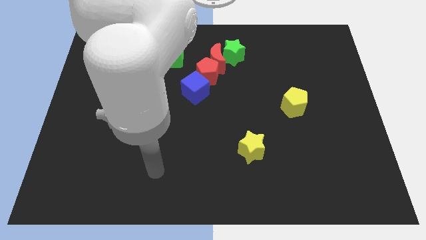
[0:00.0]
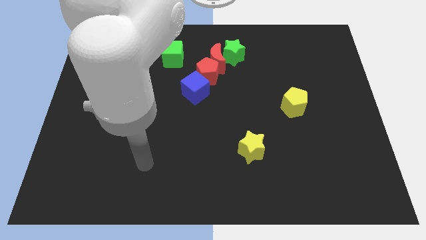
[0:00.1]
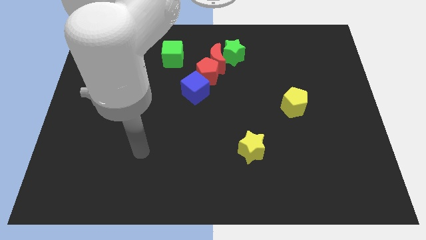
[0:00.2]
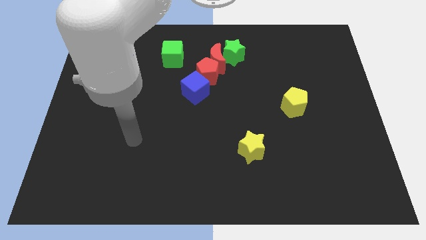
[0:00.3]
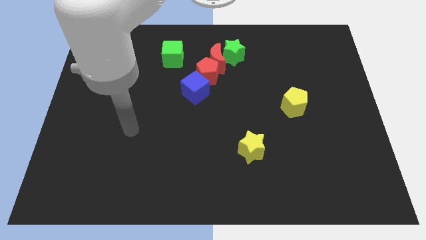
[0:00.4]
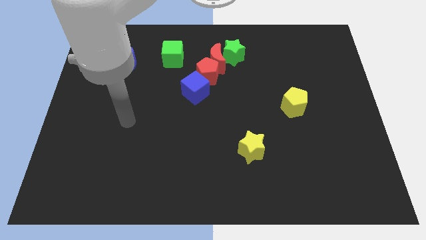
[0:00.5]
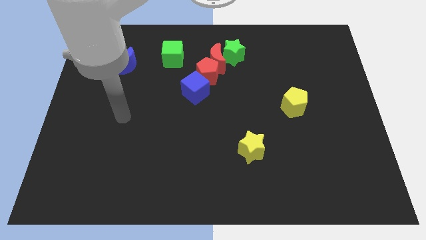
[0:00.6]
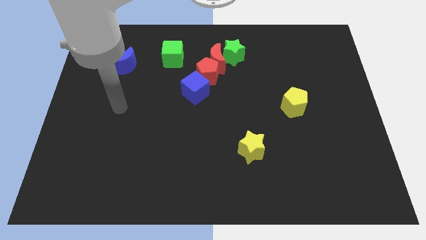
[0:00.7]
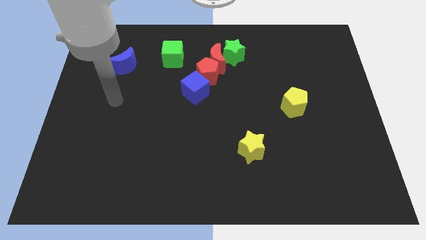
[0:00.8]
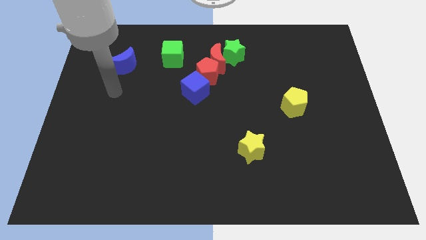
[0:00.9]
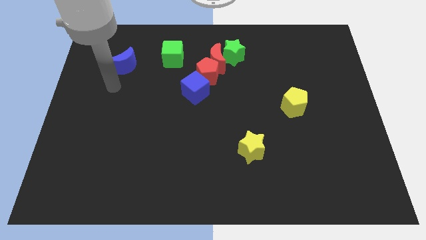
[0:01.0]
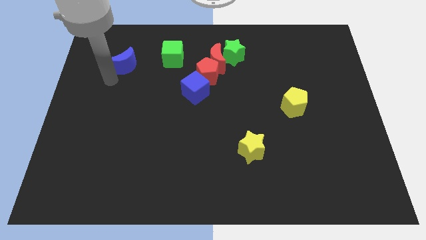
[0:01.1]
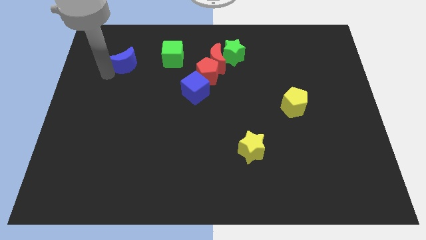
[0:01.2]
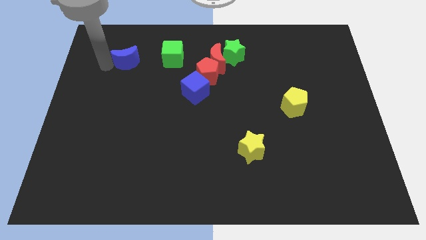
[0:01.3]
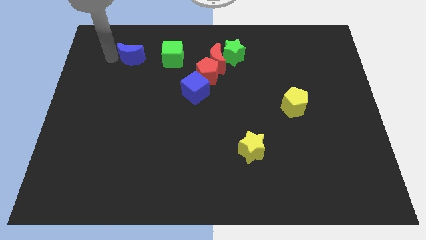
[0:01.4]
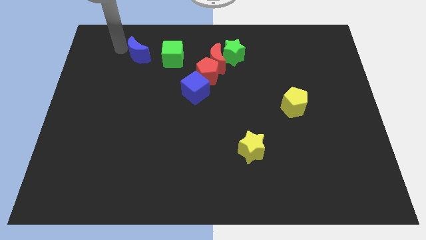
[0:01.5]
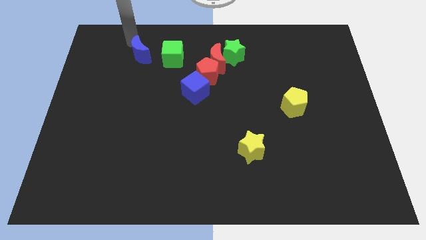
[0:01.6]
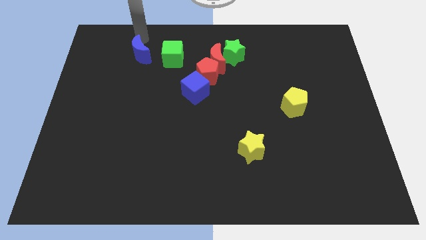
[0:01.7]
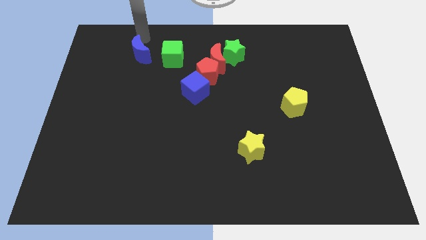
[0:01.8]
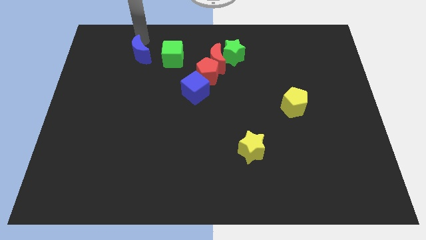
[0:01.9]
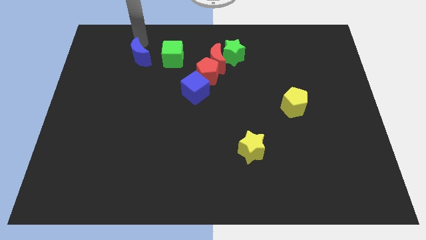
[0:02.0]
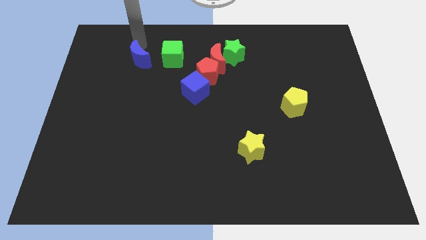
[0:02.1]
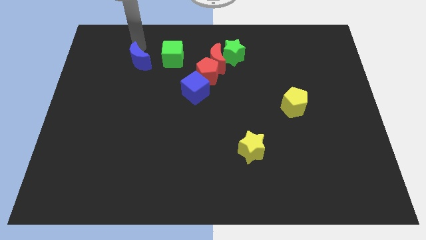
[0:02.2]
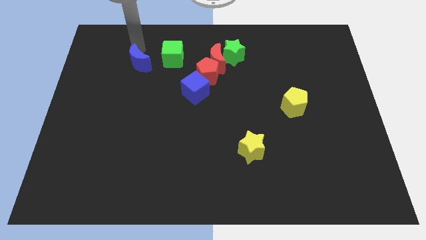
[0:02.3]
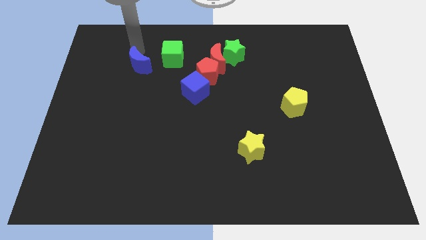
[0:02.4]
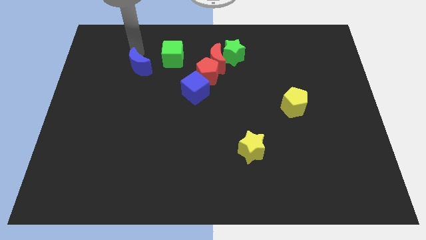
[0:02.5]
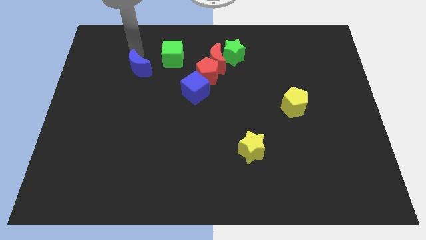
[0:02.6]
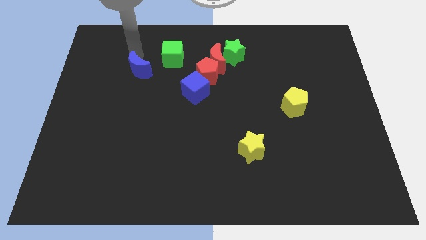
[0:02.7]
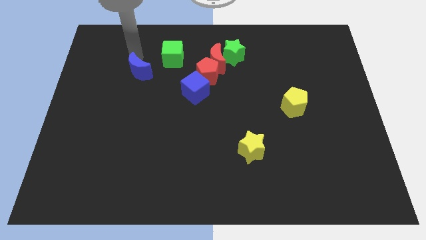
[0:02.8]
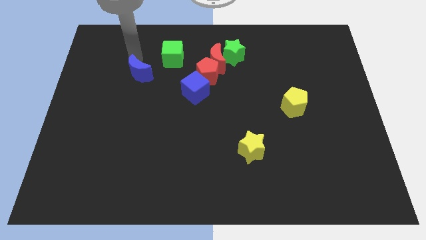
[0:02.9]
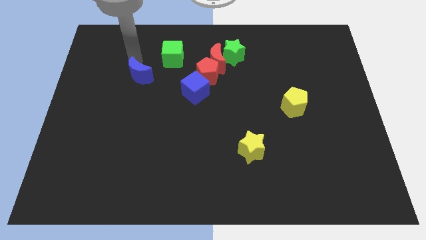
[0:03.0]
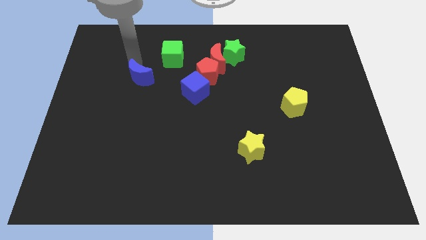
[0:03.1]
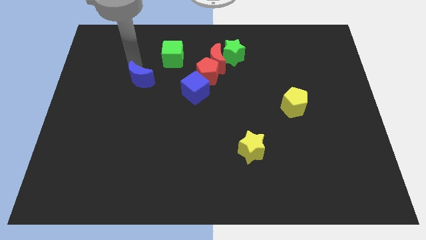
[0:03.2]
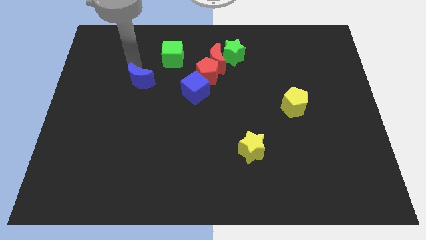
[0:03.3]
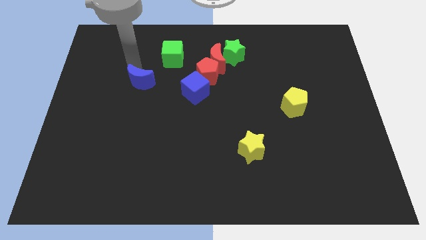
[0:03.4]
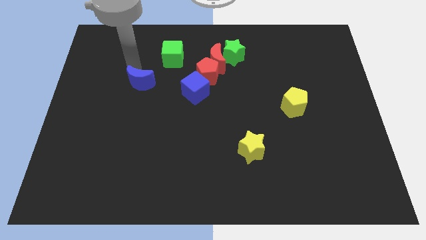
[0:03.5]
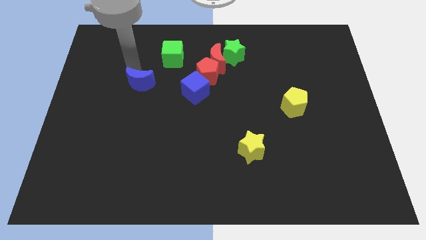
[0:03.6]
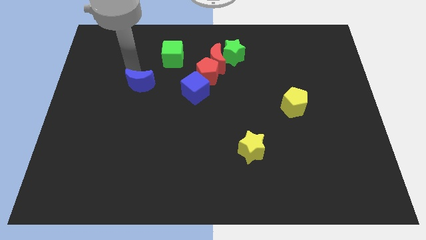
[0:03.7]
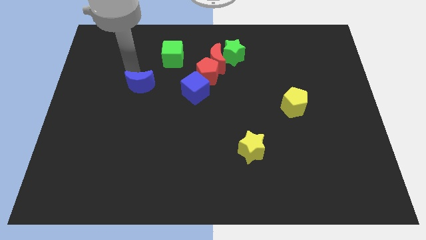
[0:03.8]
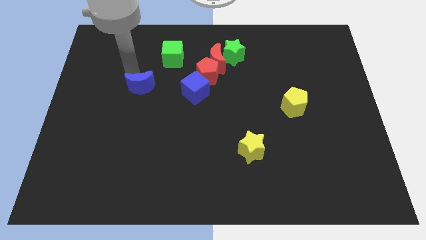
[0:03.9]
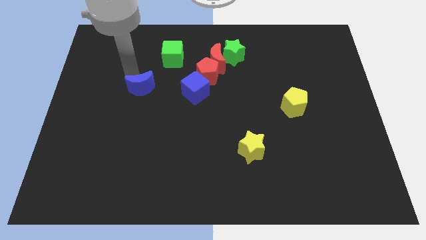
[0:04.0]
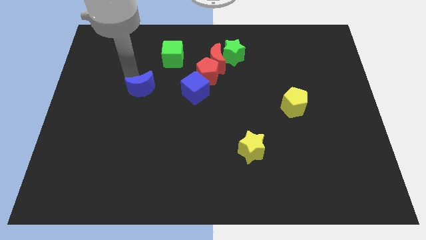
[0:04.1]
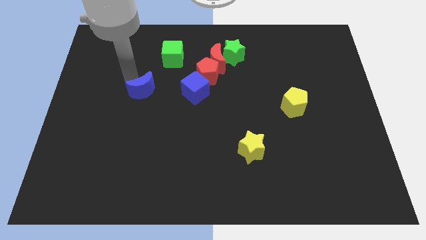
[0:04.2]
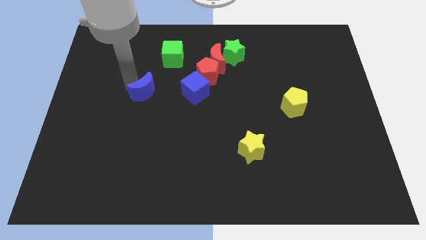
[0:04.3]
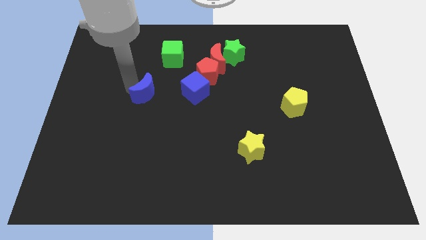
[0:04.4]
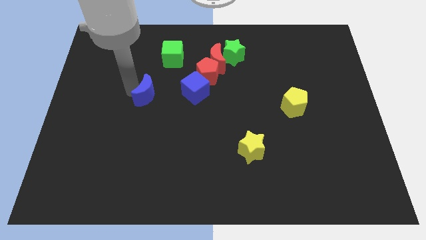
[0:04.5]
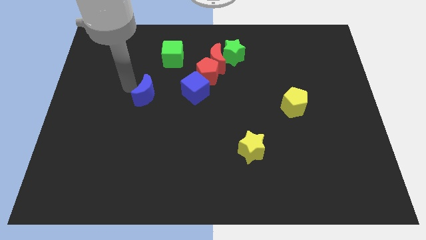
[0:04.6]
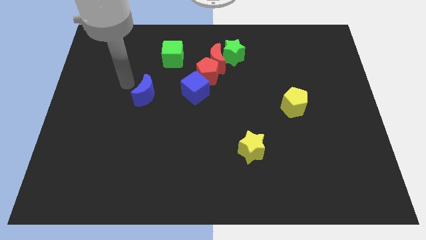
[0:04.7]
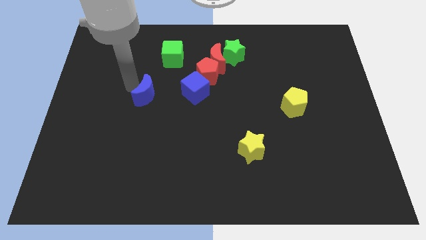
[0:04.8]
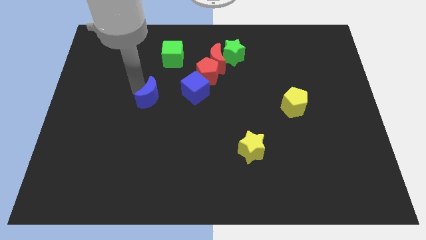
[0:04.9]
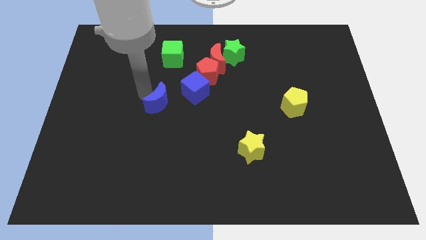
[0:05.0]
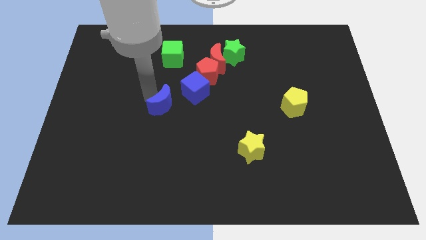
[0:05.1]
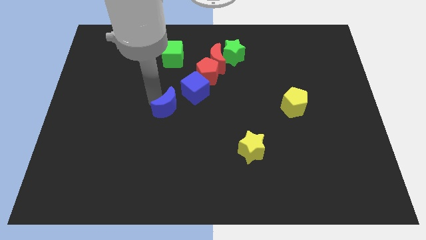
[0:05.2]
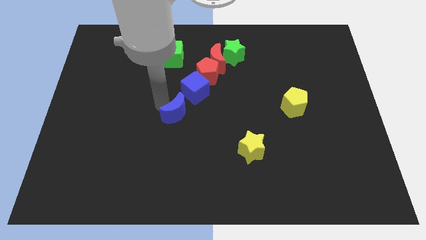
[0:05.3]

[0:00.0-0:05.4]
move the blue moon diagonally downwards and to the right

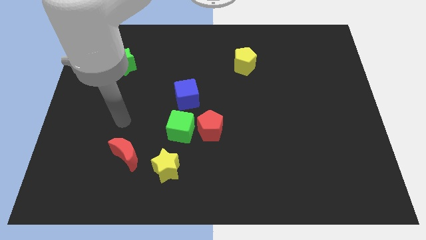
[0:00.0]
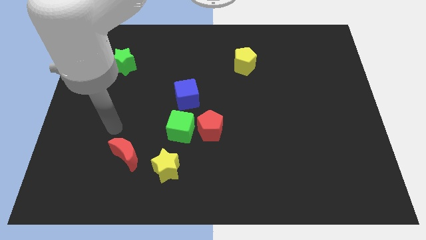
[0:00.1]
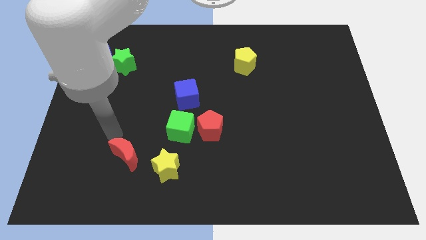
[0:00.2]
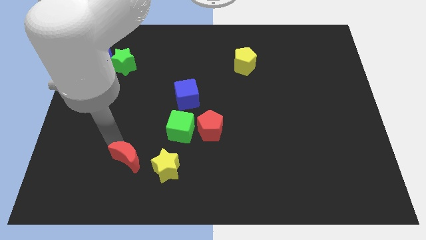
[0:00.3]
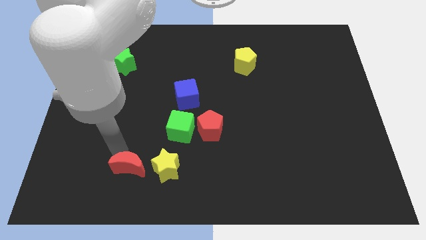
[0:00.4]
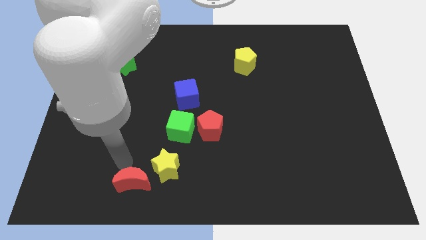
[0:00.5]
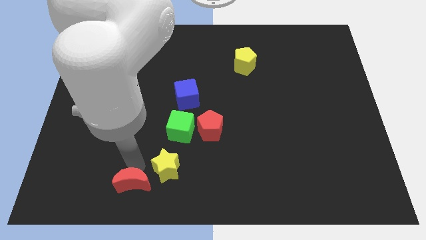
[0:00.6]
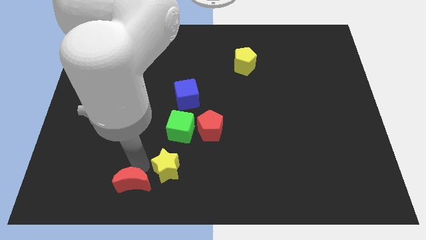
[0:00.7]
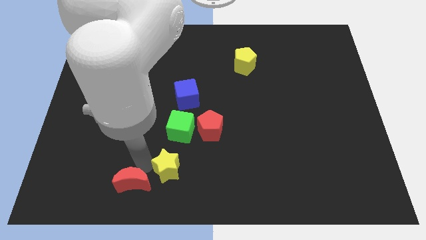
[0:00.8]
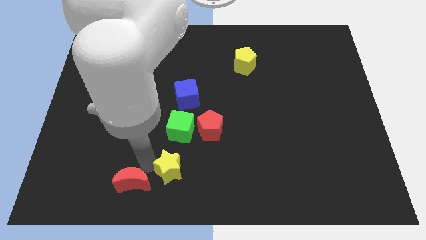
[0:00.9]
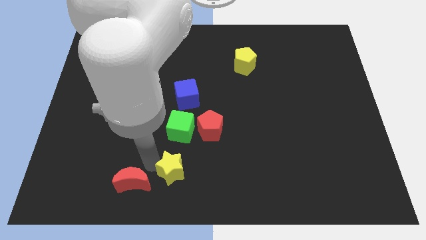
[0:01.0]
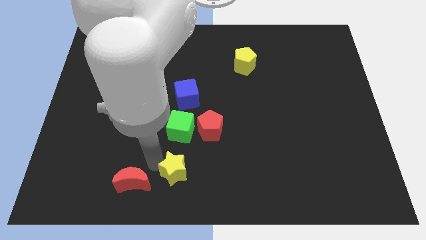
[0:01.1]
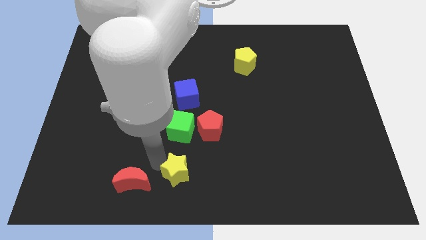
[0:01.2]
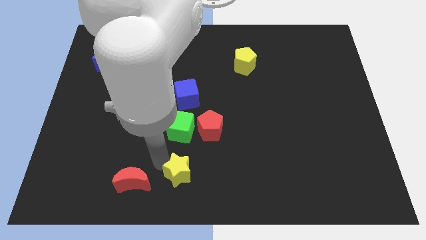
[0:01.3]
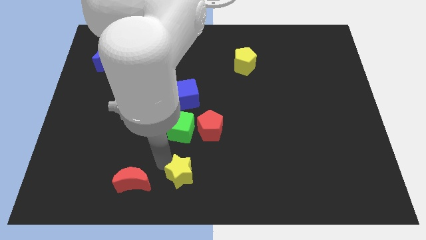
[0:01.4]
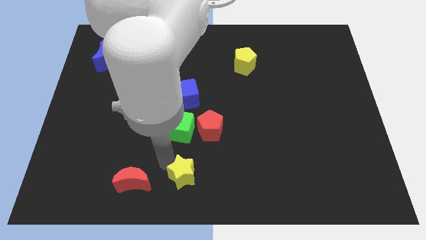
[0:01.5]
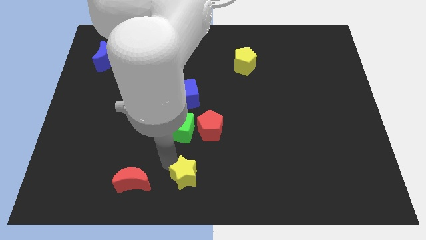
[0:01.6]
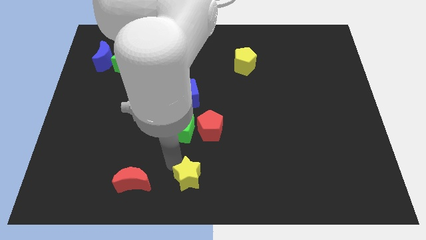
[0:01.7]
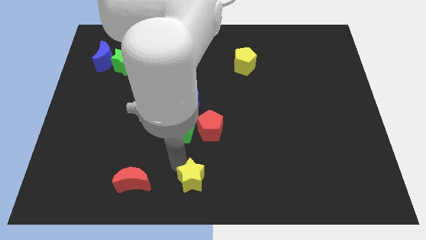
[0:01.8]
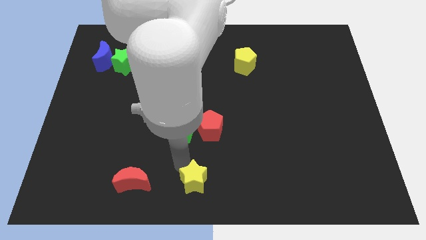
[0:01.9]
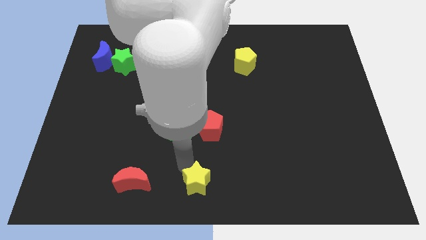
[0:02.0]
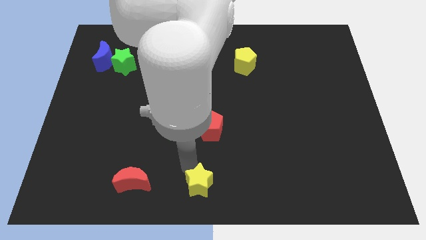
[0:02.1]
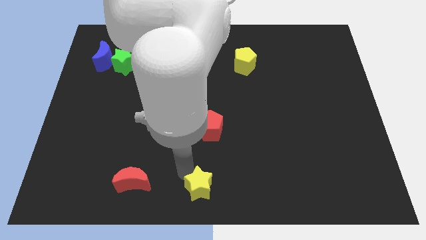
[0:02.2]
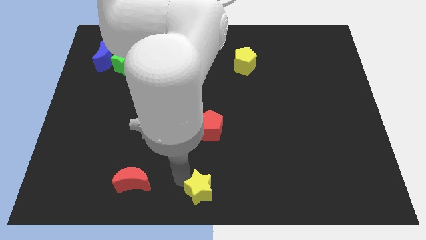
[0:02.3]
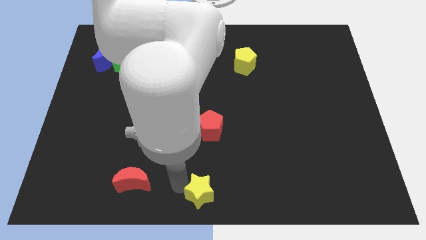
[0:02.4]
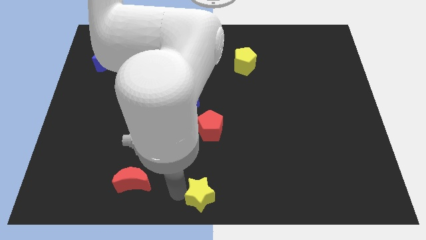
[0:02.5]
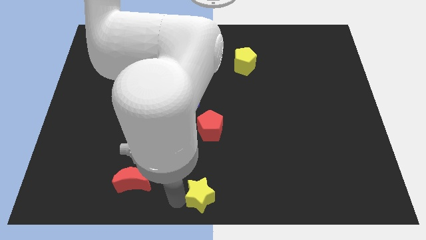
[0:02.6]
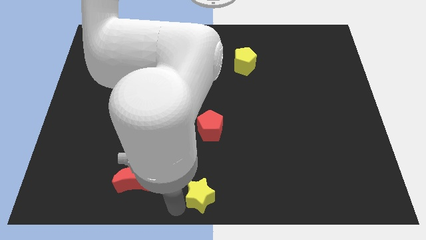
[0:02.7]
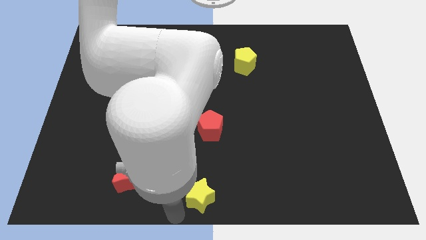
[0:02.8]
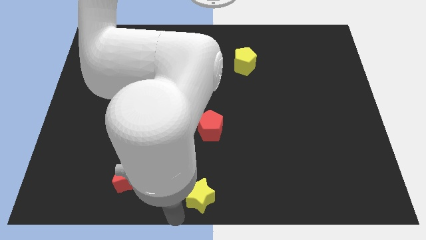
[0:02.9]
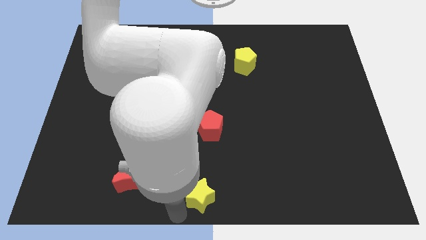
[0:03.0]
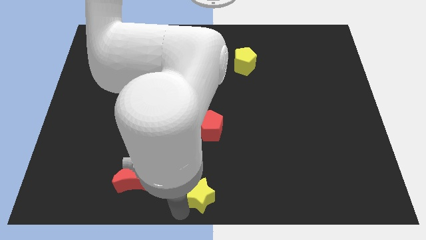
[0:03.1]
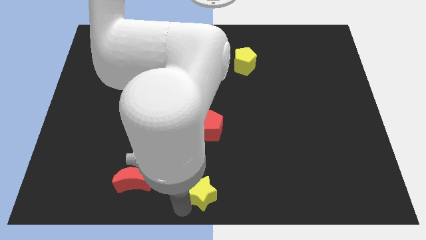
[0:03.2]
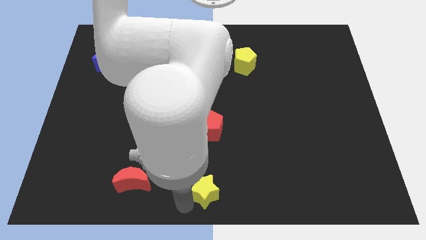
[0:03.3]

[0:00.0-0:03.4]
slide the yellow star to the right a bit
